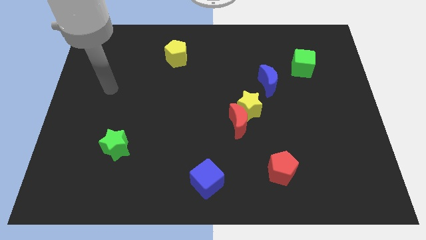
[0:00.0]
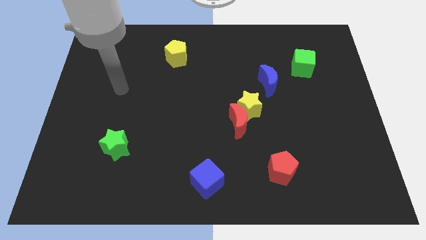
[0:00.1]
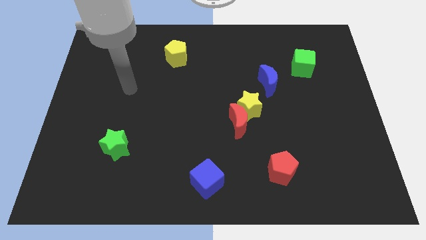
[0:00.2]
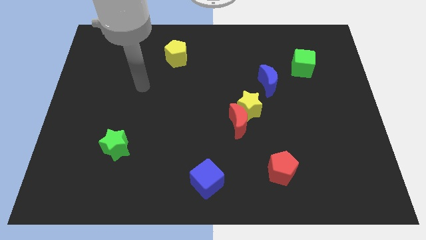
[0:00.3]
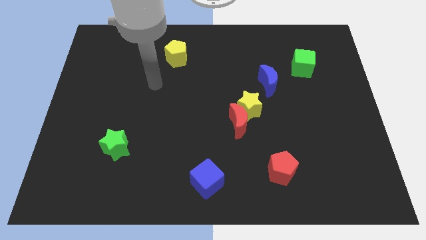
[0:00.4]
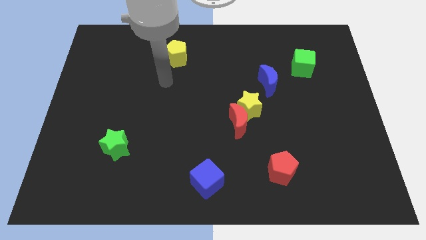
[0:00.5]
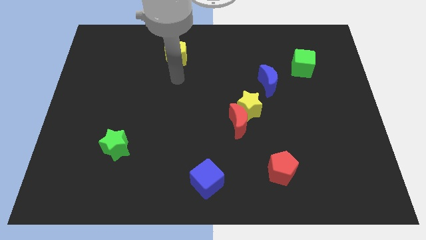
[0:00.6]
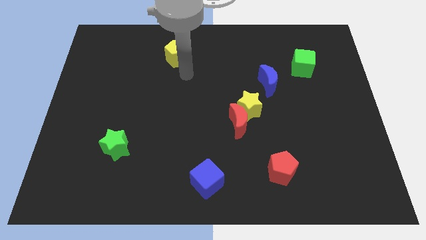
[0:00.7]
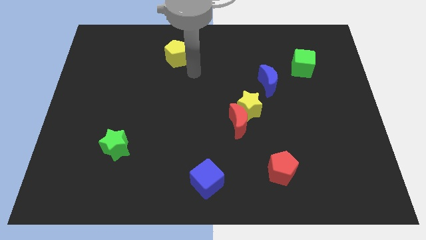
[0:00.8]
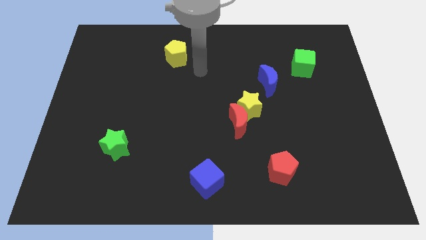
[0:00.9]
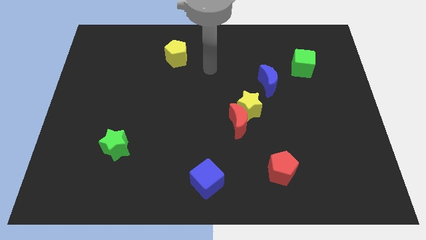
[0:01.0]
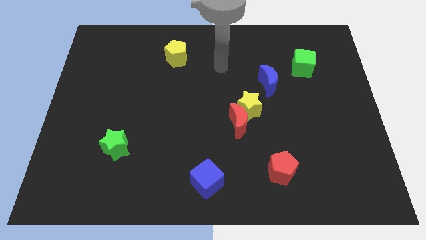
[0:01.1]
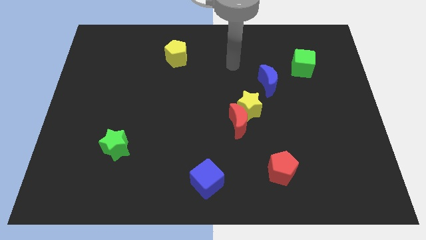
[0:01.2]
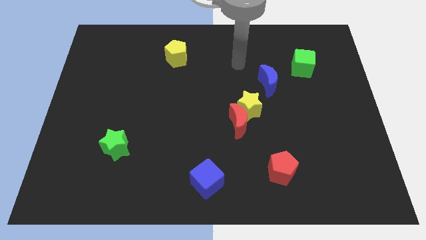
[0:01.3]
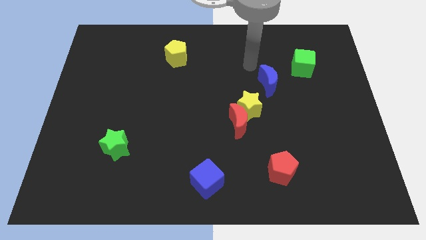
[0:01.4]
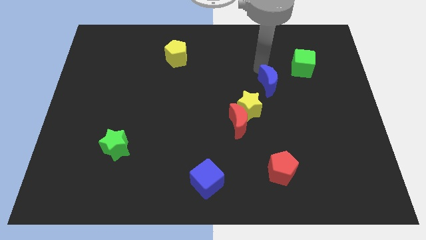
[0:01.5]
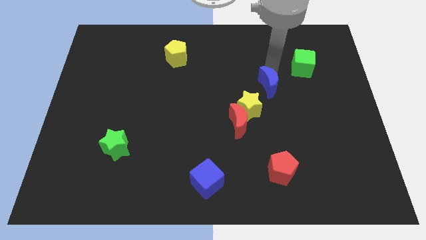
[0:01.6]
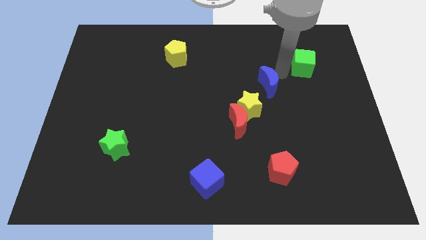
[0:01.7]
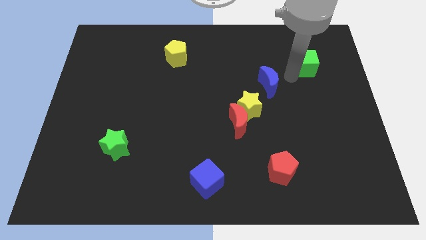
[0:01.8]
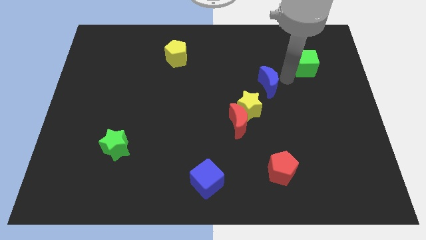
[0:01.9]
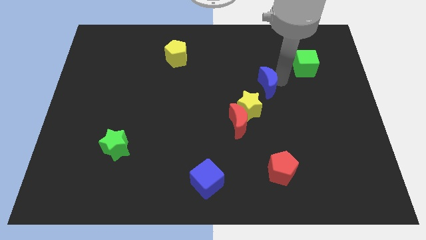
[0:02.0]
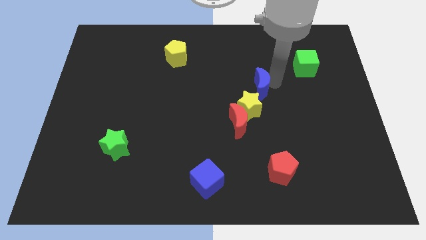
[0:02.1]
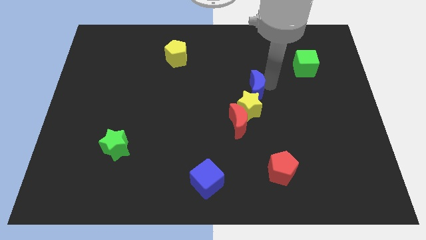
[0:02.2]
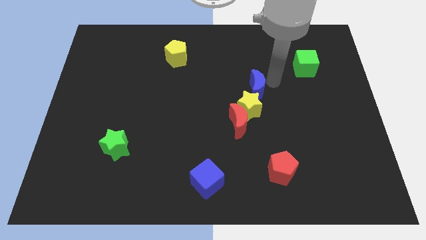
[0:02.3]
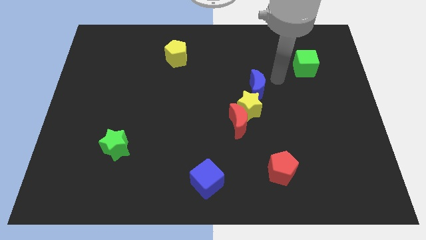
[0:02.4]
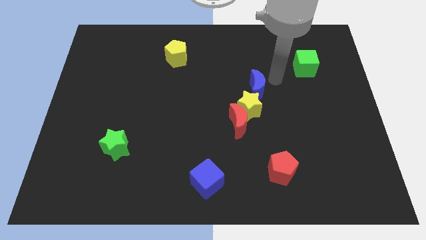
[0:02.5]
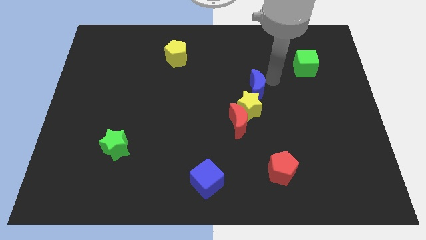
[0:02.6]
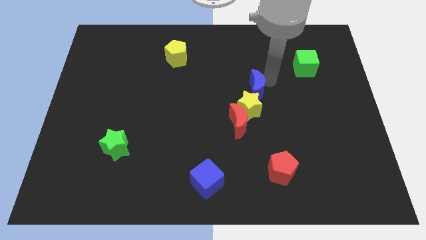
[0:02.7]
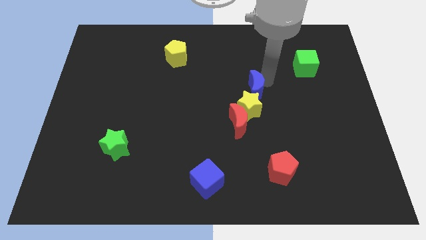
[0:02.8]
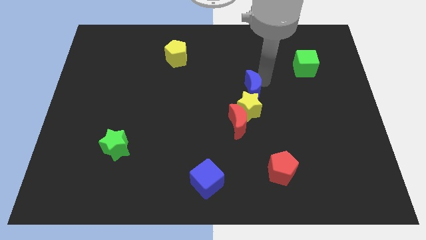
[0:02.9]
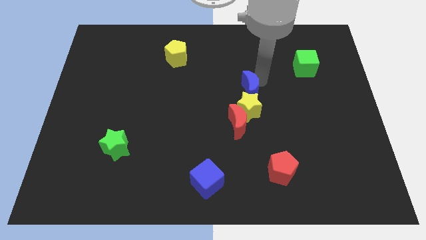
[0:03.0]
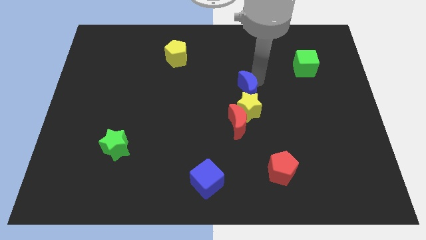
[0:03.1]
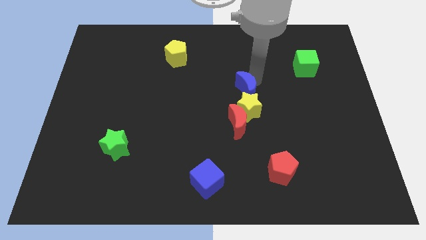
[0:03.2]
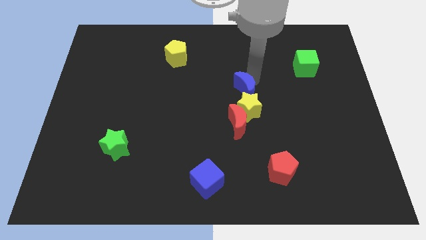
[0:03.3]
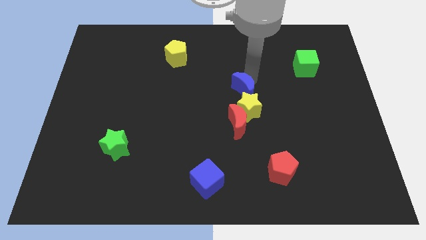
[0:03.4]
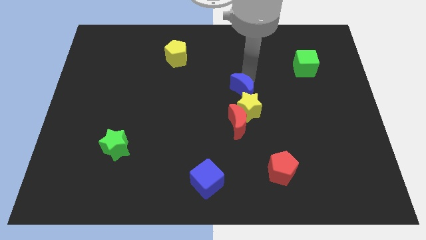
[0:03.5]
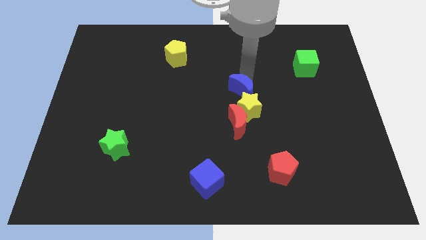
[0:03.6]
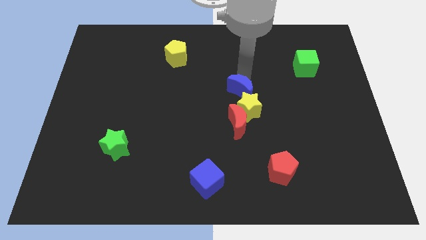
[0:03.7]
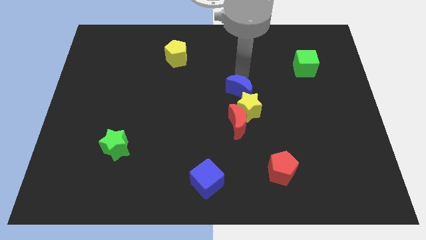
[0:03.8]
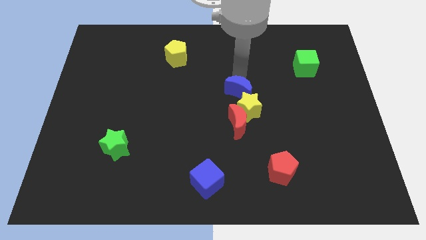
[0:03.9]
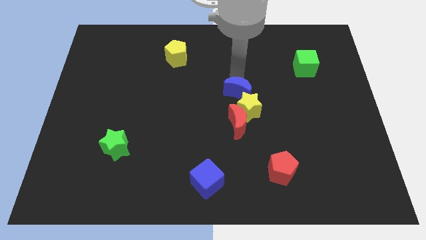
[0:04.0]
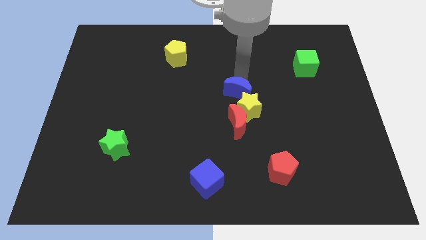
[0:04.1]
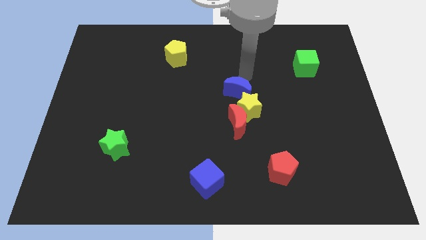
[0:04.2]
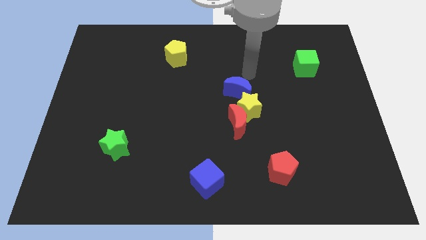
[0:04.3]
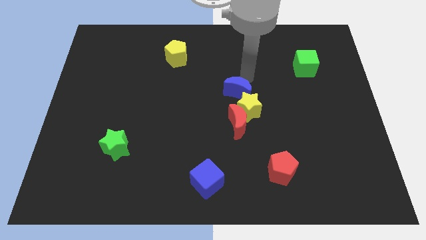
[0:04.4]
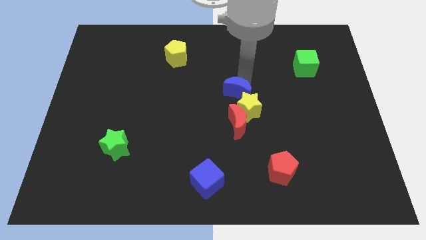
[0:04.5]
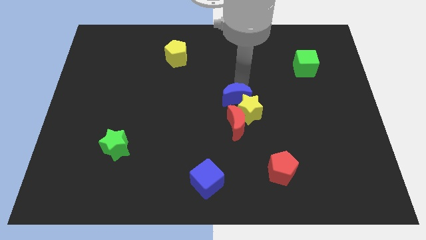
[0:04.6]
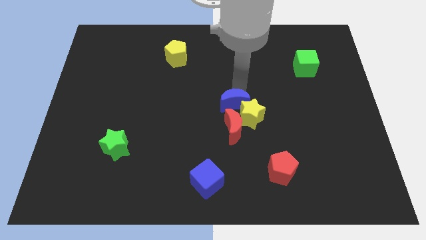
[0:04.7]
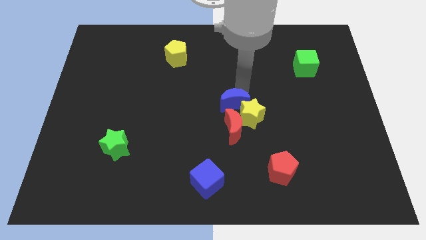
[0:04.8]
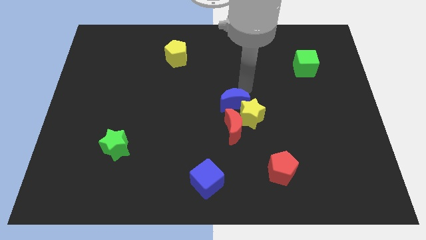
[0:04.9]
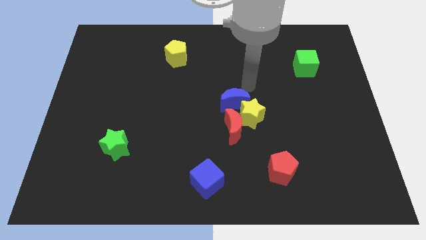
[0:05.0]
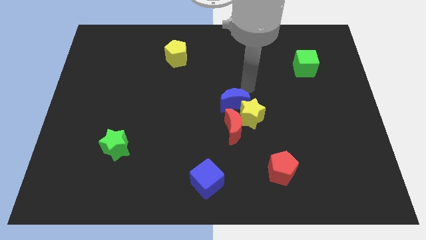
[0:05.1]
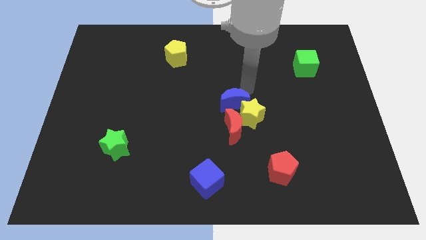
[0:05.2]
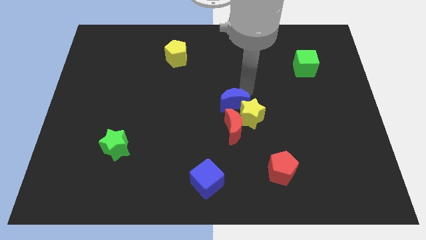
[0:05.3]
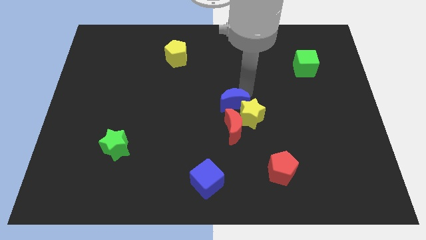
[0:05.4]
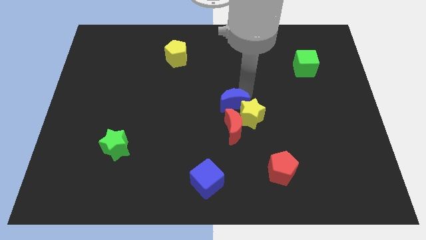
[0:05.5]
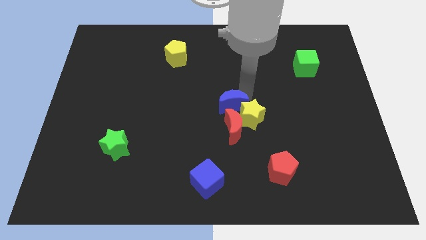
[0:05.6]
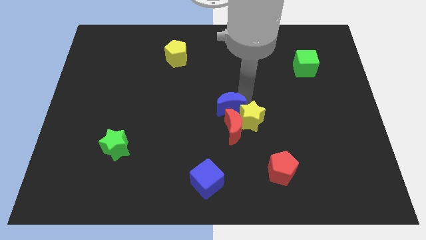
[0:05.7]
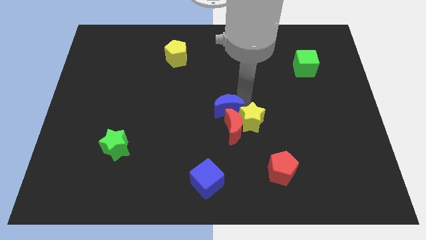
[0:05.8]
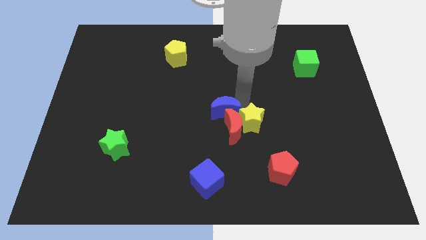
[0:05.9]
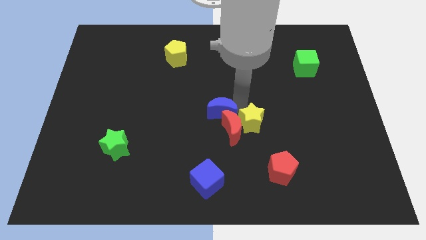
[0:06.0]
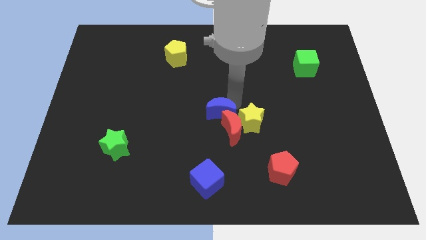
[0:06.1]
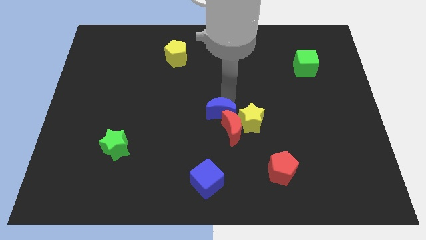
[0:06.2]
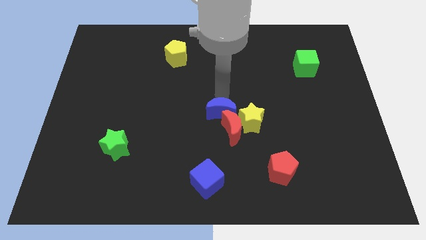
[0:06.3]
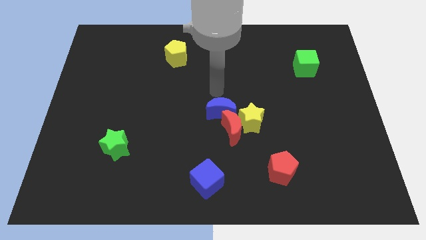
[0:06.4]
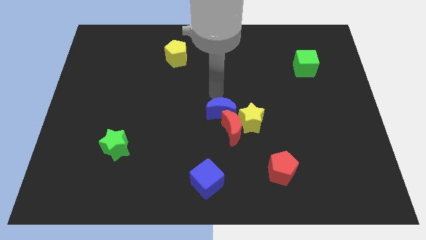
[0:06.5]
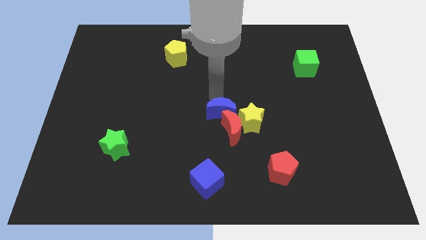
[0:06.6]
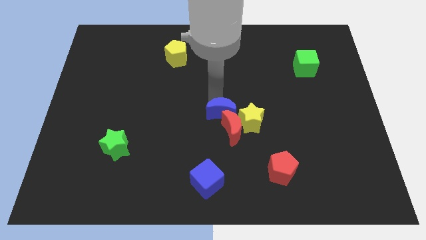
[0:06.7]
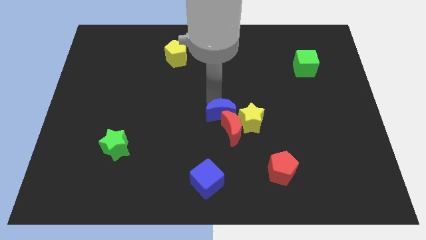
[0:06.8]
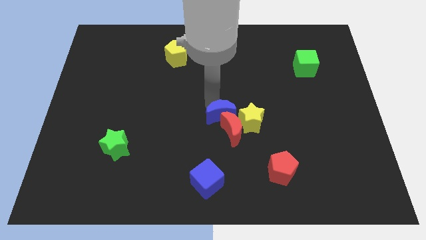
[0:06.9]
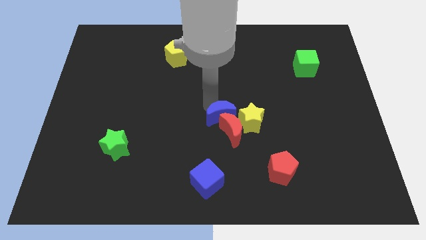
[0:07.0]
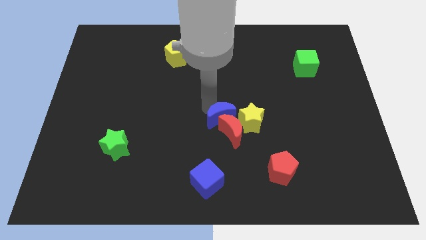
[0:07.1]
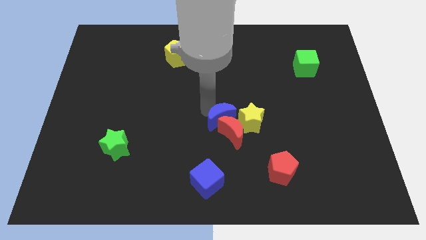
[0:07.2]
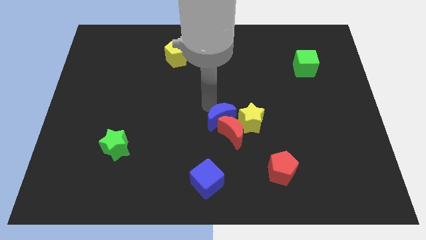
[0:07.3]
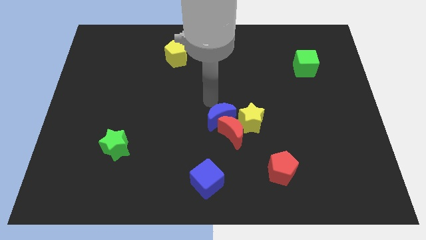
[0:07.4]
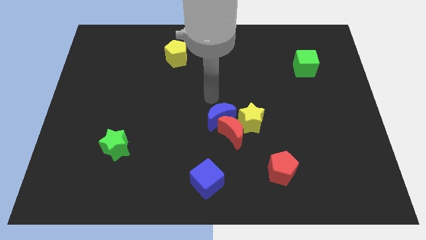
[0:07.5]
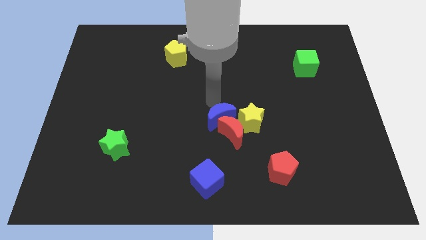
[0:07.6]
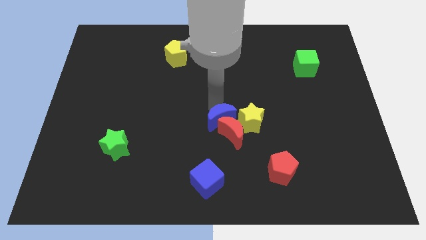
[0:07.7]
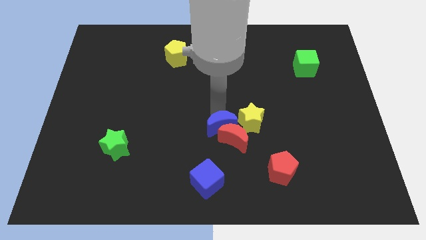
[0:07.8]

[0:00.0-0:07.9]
put the blue moon diagonally down and to the left of the yellow star
